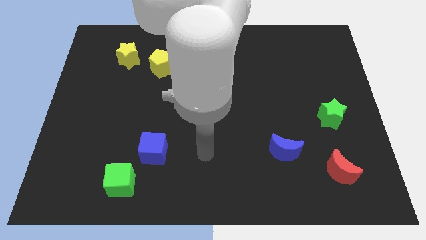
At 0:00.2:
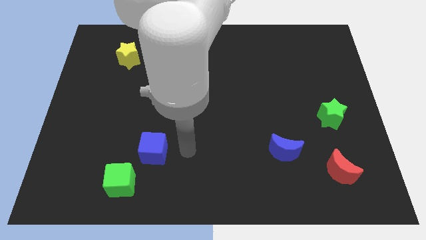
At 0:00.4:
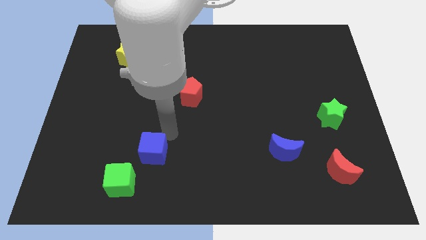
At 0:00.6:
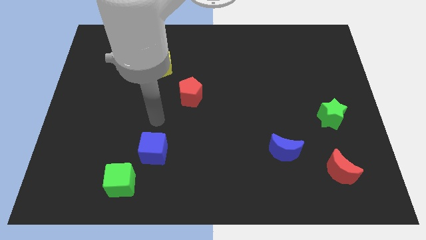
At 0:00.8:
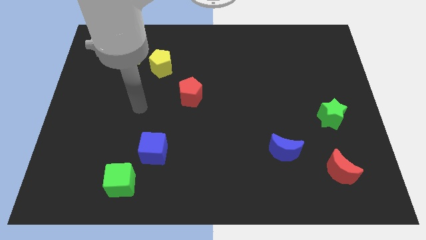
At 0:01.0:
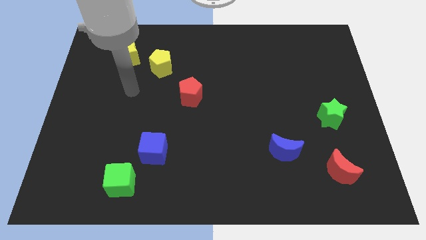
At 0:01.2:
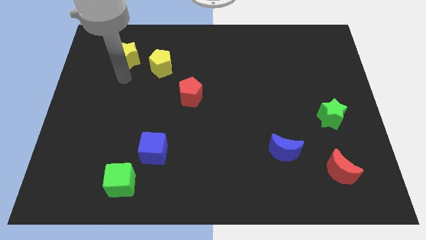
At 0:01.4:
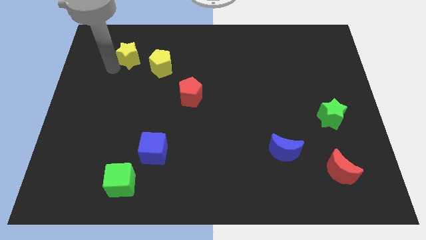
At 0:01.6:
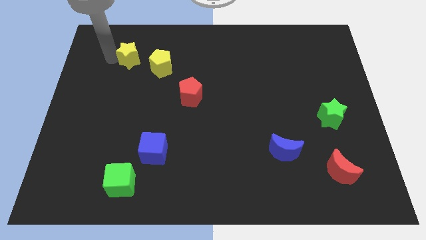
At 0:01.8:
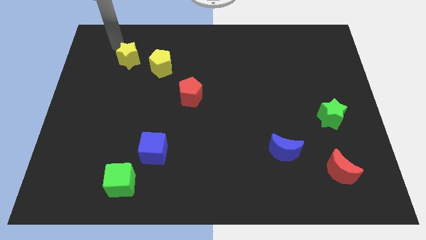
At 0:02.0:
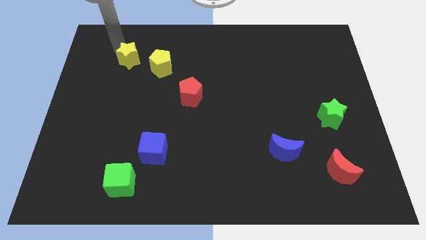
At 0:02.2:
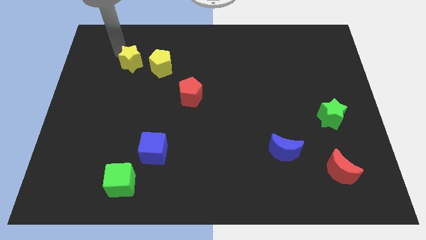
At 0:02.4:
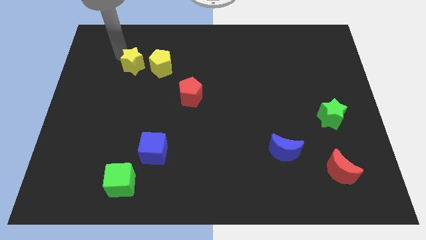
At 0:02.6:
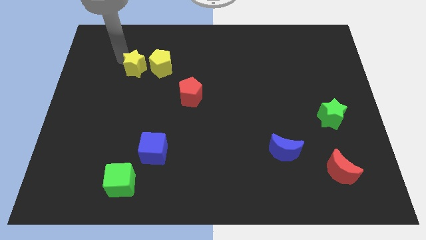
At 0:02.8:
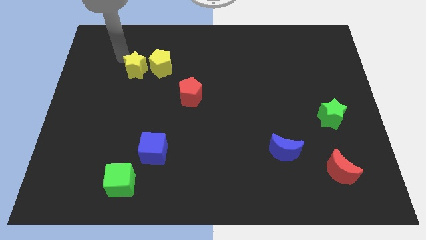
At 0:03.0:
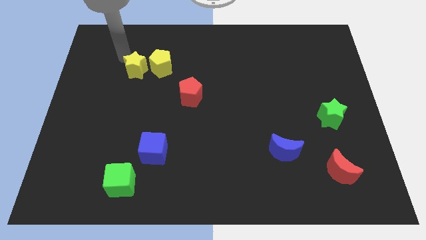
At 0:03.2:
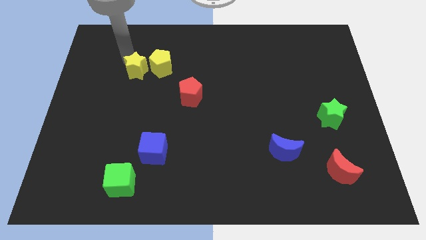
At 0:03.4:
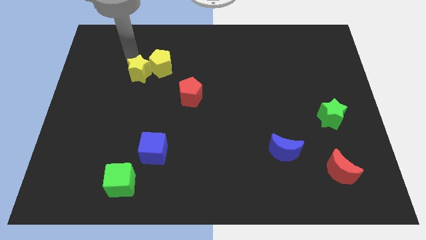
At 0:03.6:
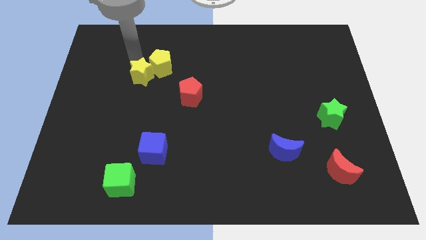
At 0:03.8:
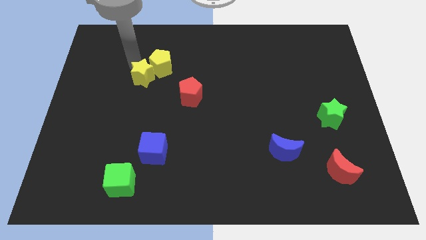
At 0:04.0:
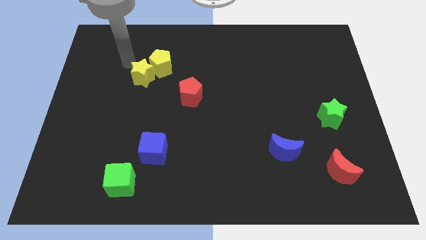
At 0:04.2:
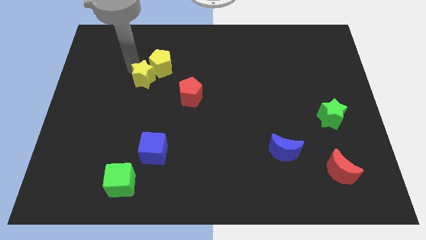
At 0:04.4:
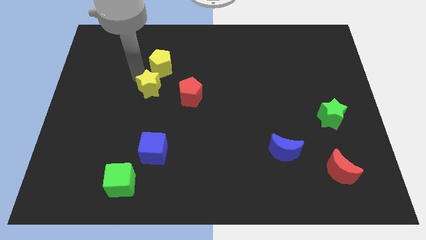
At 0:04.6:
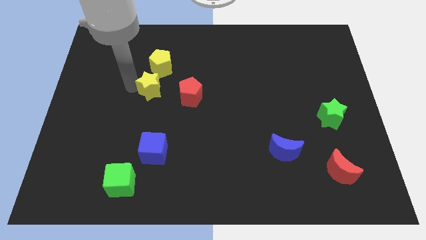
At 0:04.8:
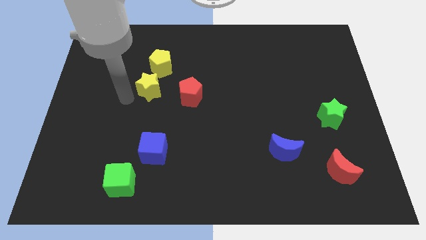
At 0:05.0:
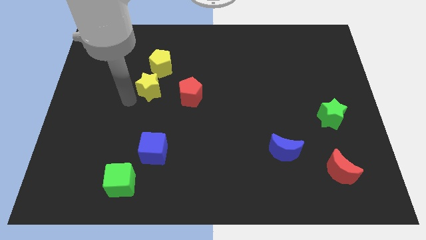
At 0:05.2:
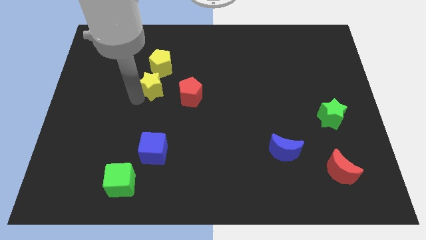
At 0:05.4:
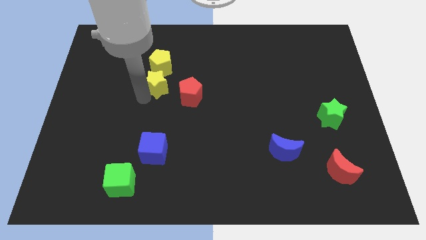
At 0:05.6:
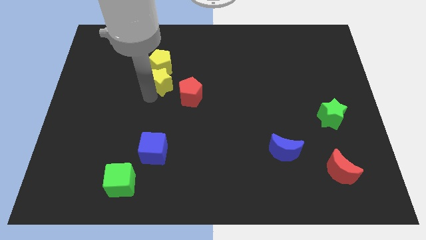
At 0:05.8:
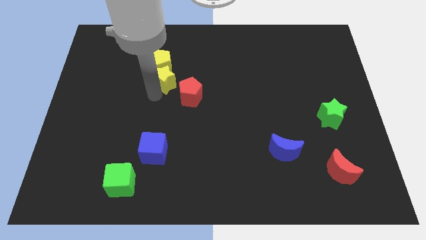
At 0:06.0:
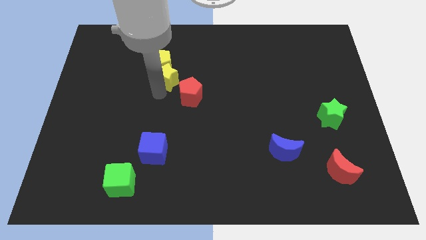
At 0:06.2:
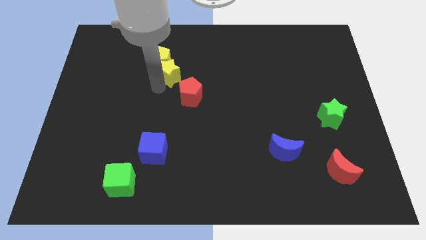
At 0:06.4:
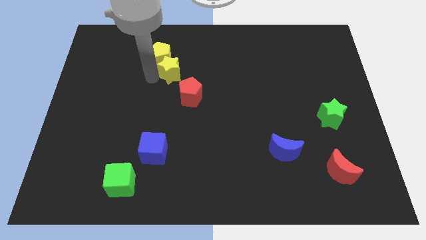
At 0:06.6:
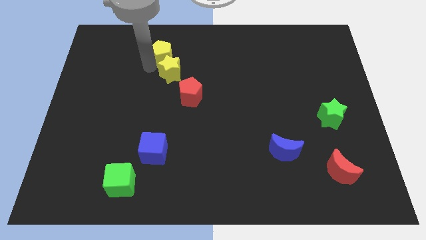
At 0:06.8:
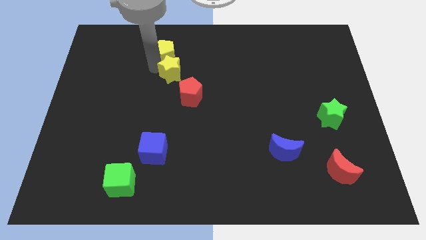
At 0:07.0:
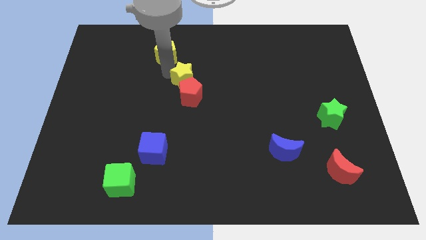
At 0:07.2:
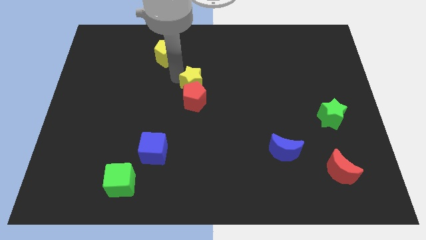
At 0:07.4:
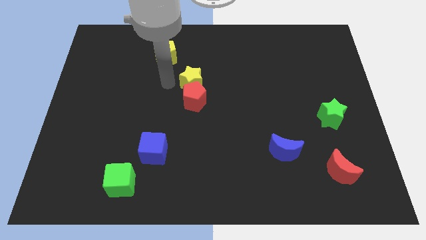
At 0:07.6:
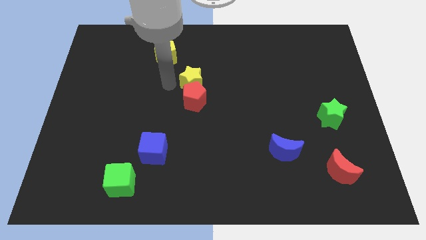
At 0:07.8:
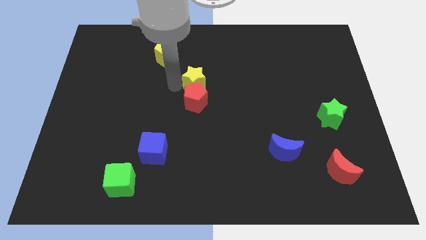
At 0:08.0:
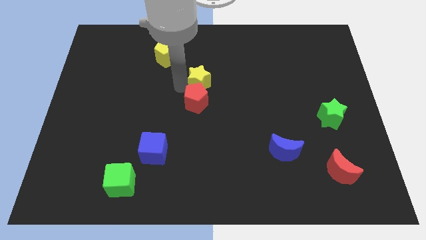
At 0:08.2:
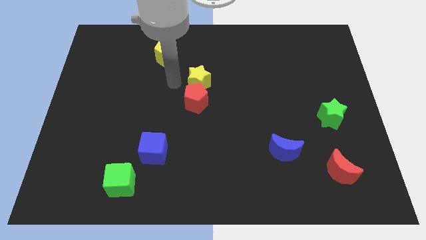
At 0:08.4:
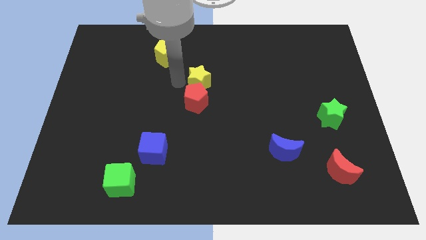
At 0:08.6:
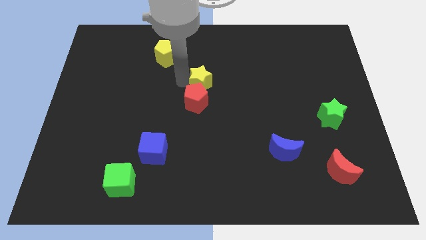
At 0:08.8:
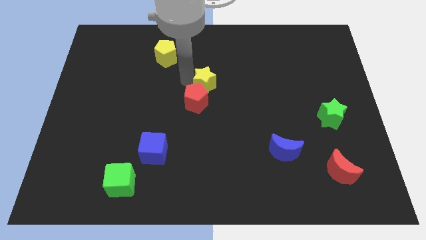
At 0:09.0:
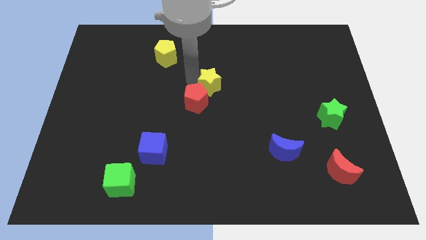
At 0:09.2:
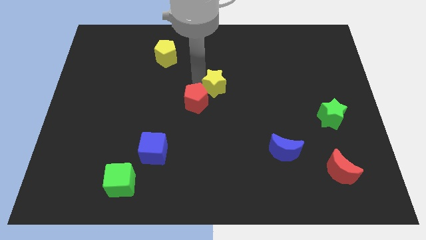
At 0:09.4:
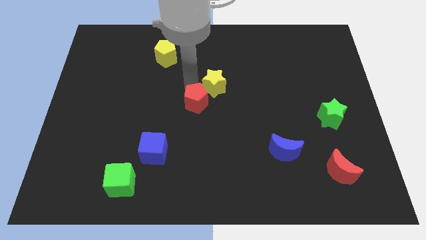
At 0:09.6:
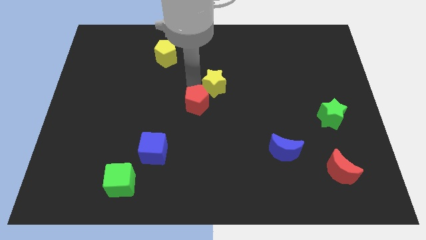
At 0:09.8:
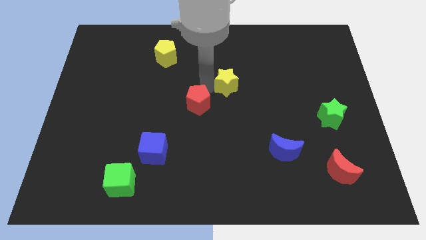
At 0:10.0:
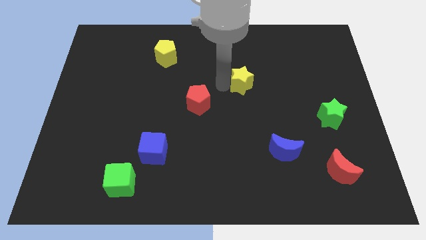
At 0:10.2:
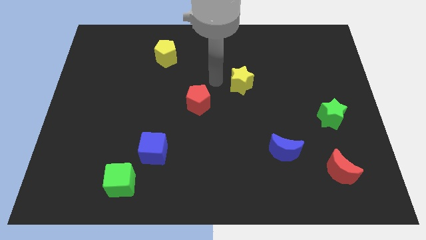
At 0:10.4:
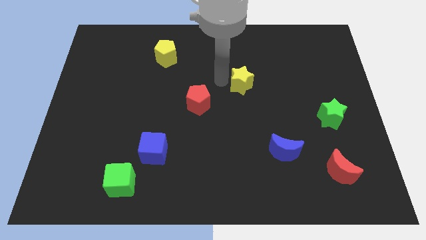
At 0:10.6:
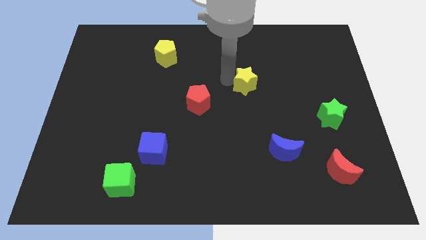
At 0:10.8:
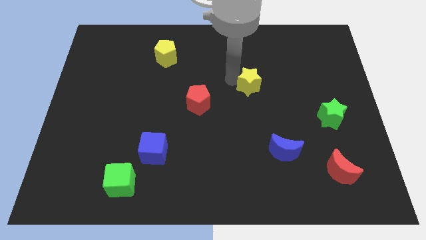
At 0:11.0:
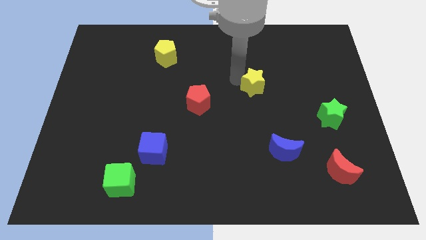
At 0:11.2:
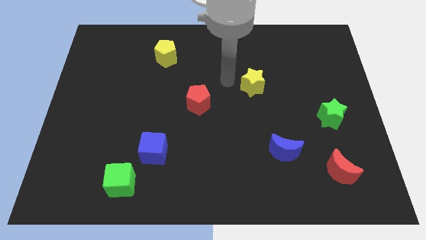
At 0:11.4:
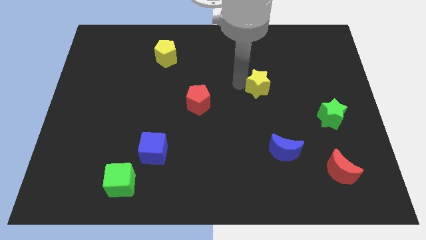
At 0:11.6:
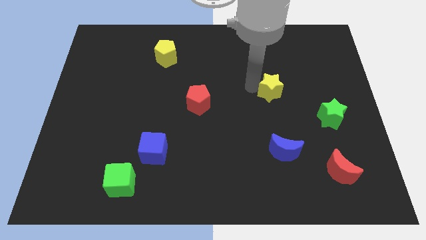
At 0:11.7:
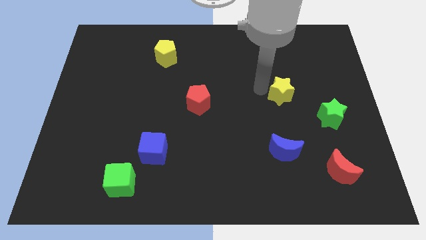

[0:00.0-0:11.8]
slide the yellow star to the top left of the green star

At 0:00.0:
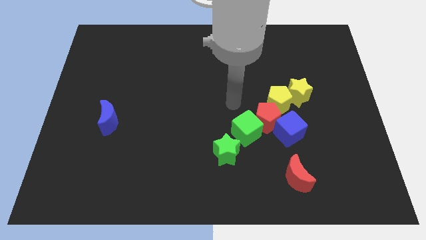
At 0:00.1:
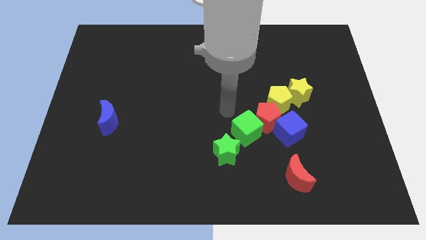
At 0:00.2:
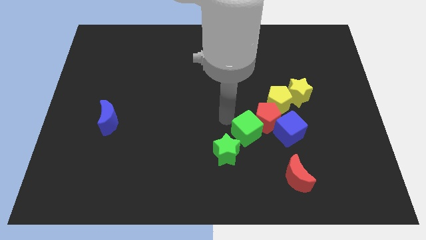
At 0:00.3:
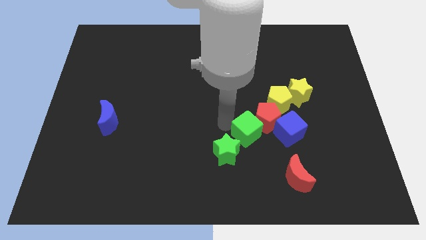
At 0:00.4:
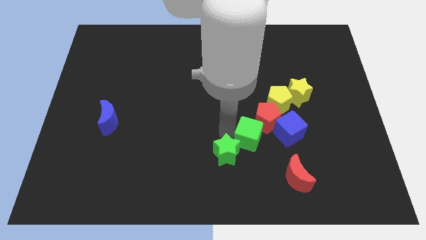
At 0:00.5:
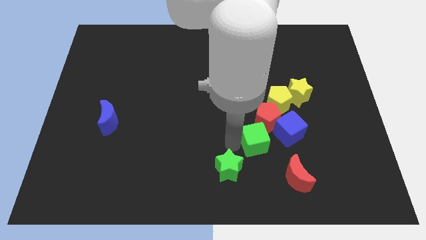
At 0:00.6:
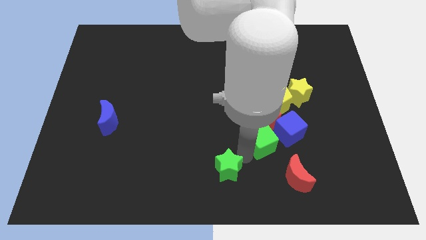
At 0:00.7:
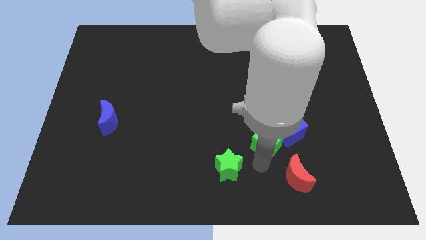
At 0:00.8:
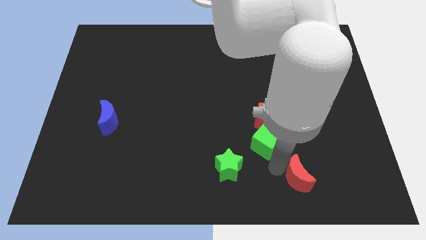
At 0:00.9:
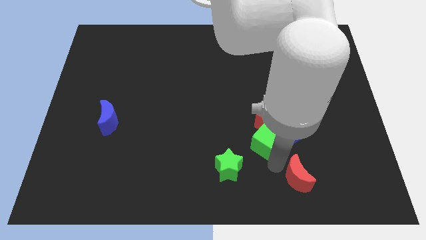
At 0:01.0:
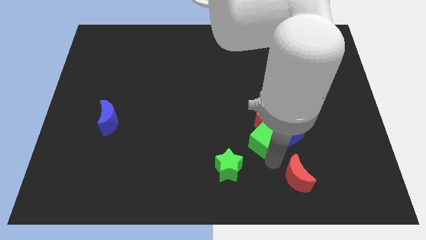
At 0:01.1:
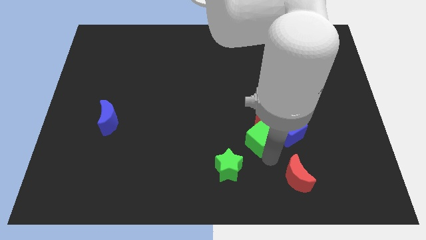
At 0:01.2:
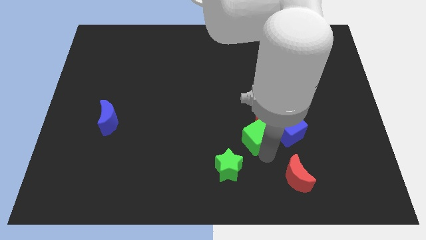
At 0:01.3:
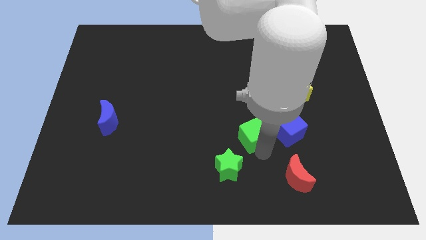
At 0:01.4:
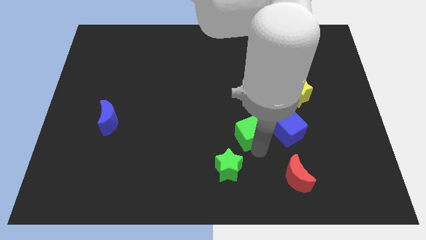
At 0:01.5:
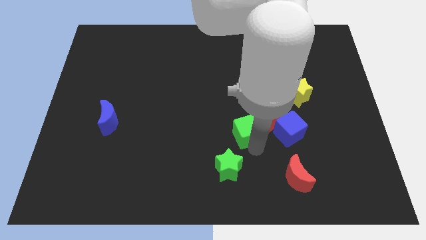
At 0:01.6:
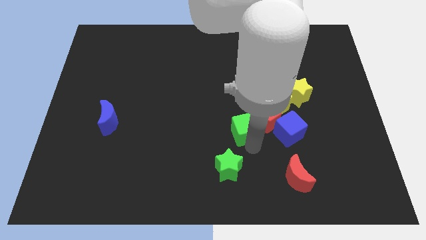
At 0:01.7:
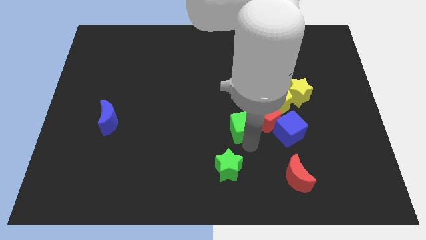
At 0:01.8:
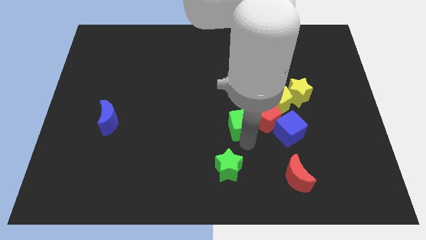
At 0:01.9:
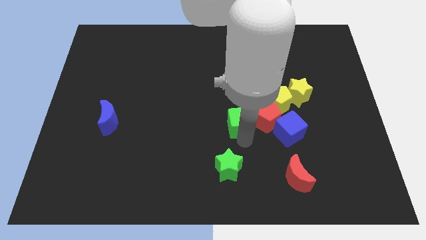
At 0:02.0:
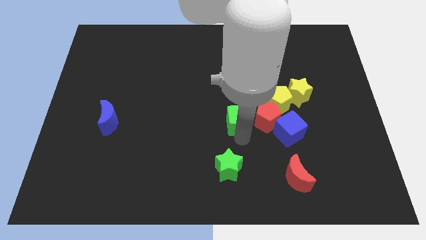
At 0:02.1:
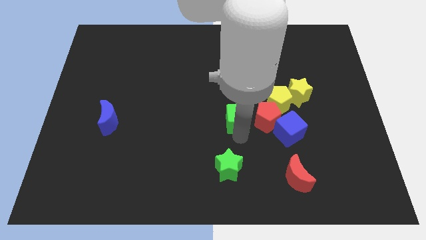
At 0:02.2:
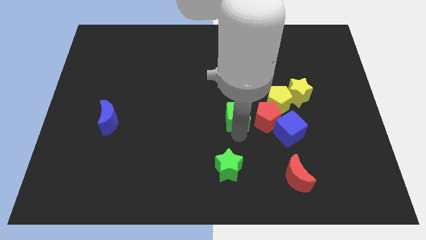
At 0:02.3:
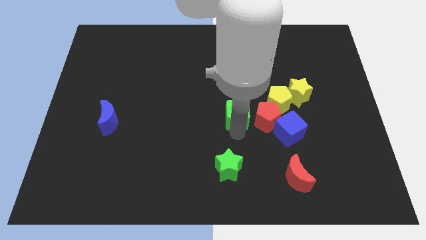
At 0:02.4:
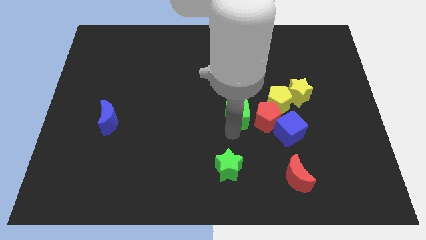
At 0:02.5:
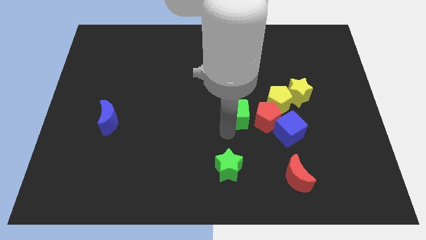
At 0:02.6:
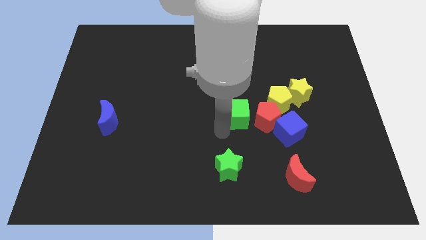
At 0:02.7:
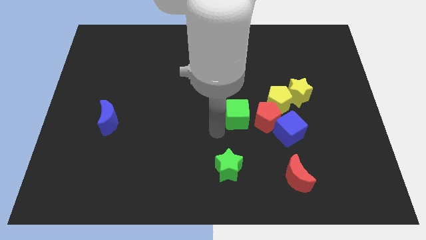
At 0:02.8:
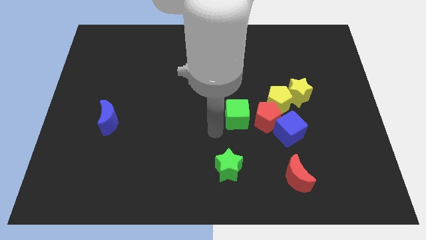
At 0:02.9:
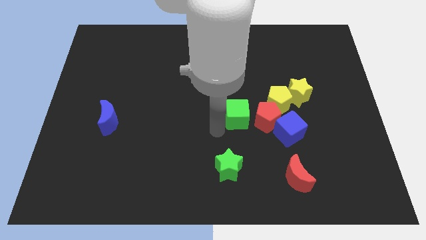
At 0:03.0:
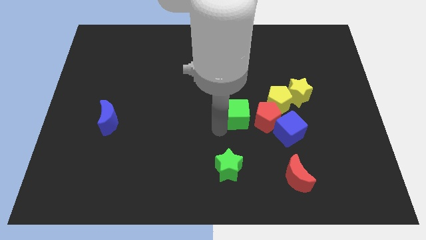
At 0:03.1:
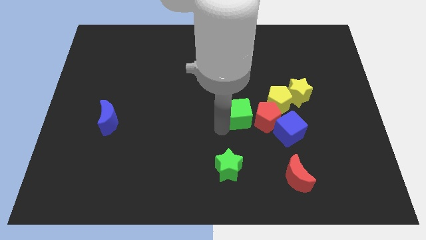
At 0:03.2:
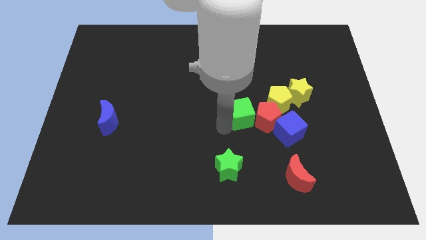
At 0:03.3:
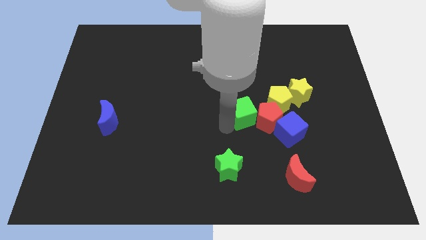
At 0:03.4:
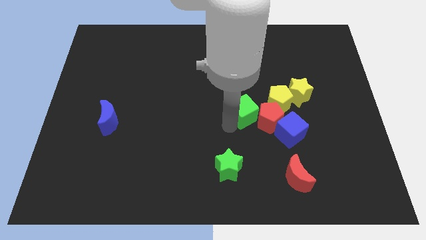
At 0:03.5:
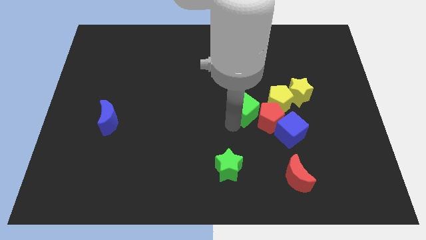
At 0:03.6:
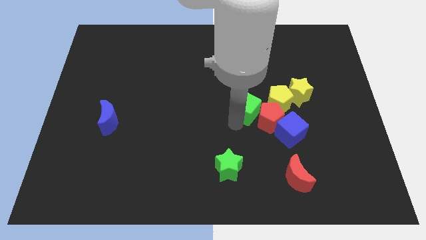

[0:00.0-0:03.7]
push the green cube to the left side of the yellow star
